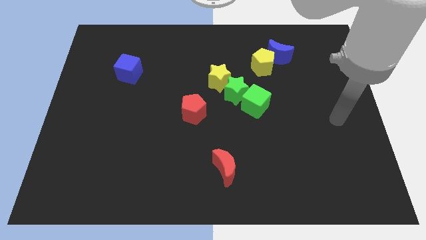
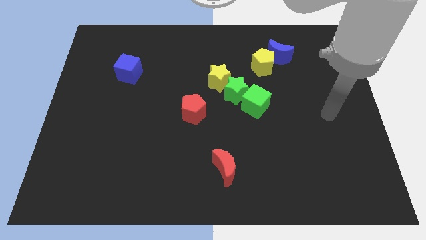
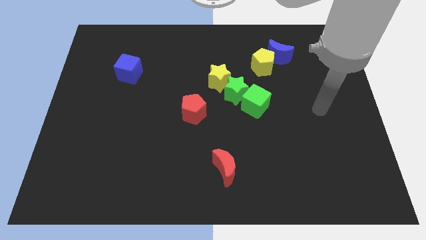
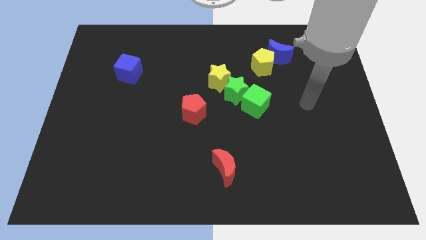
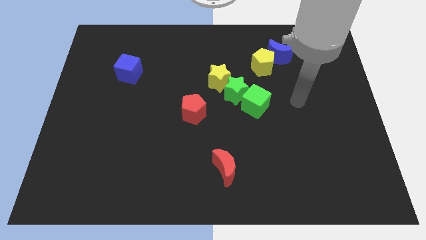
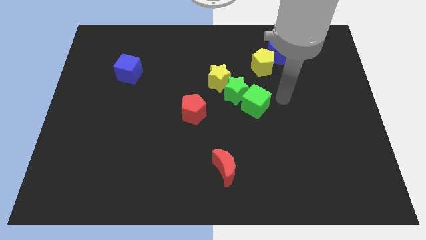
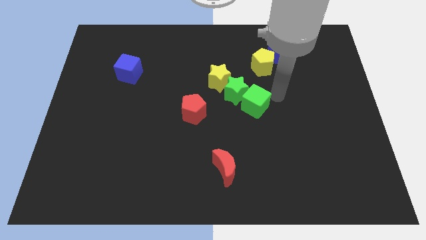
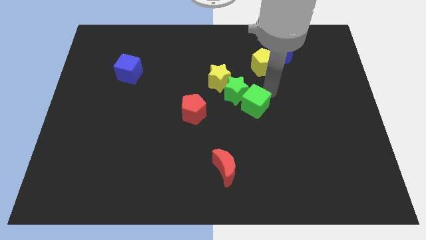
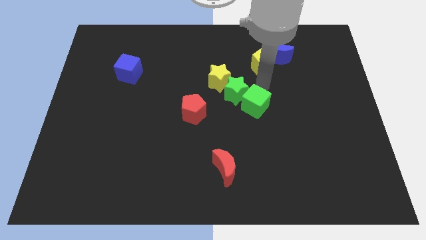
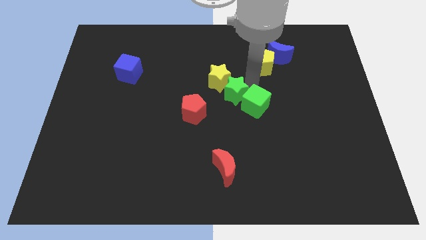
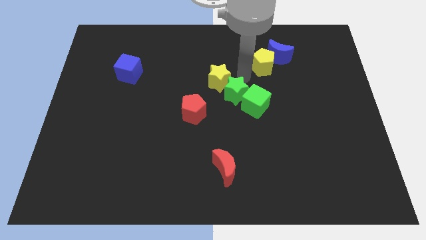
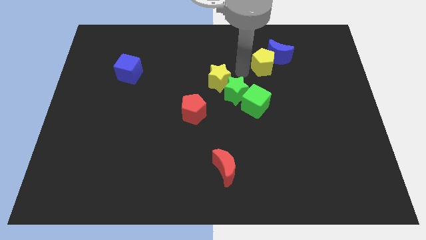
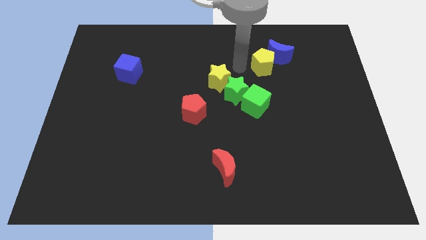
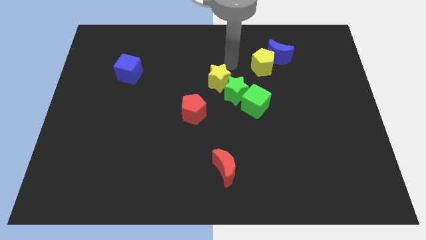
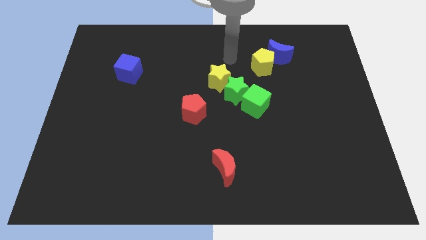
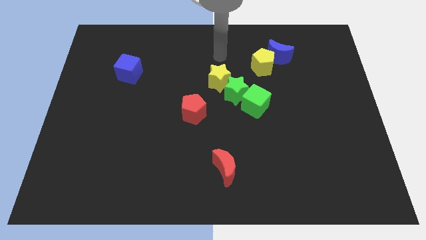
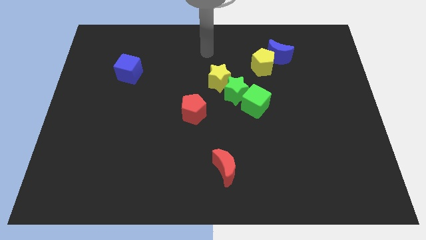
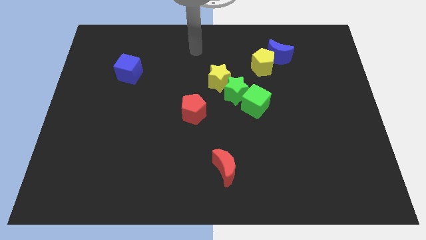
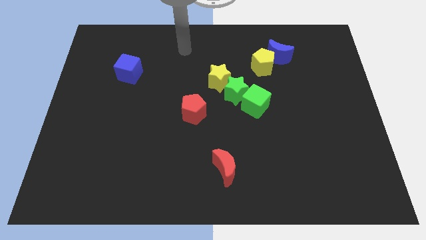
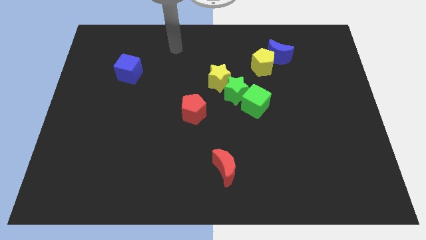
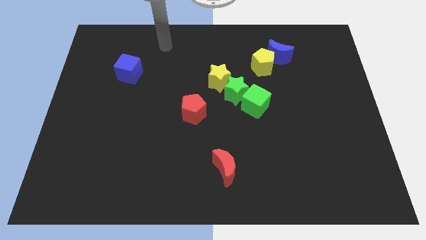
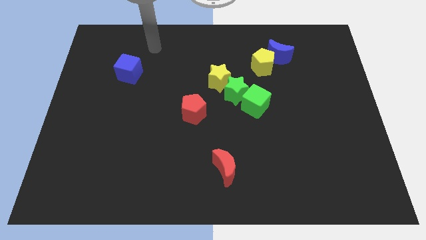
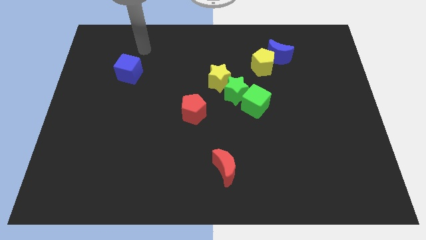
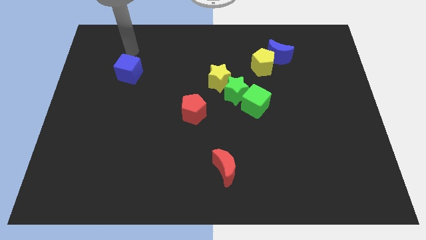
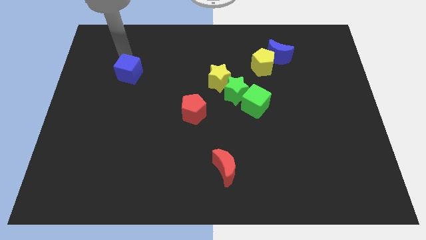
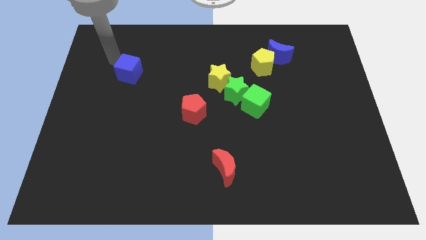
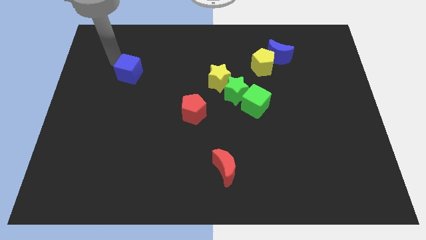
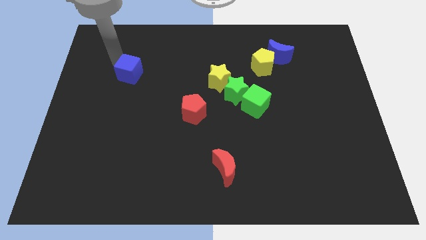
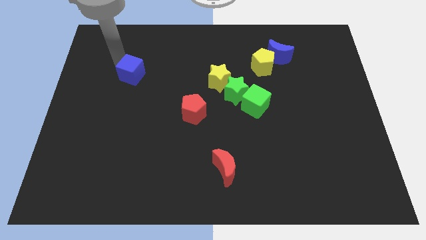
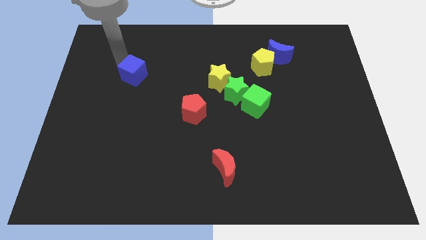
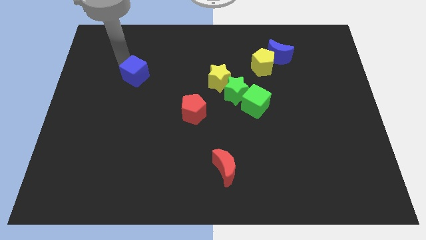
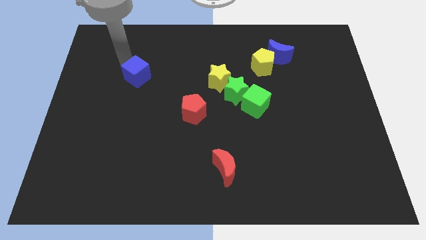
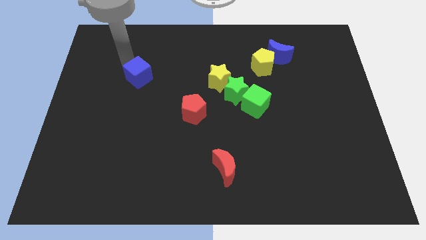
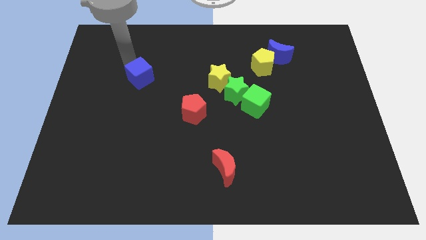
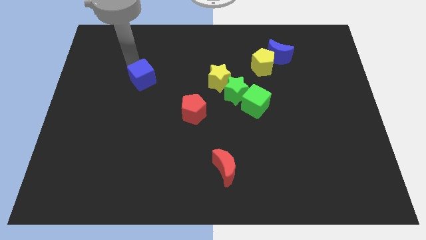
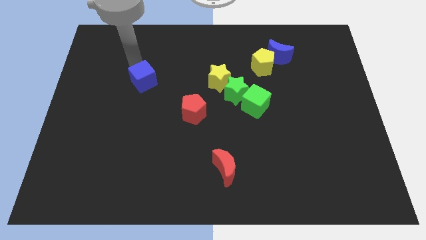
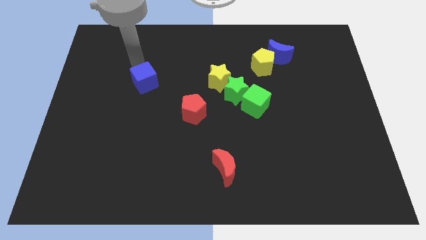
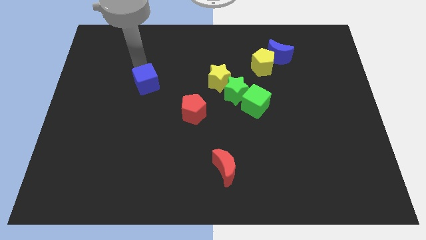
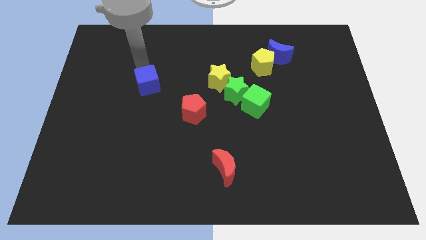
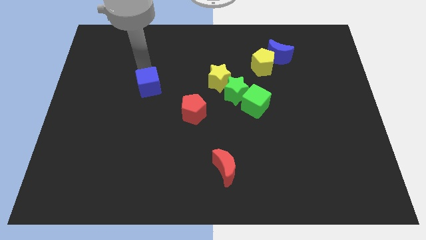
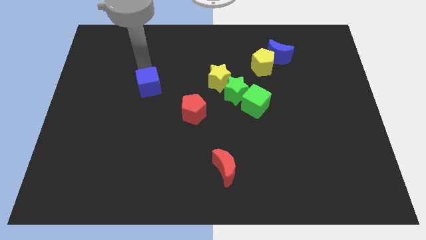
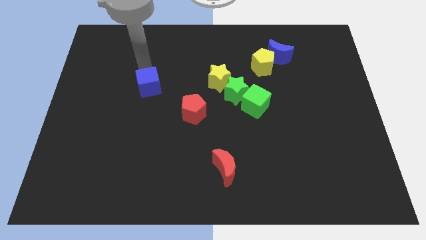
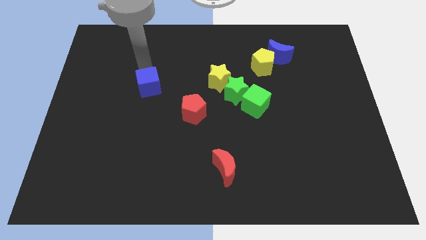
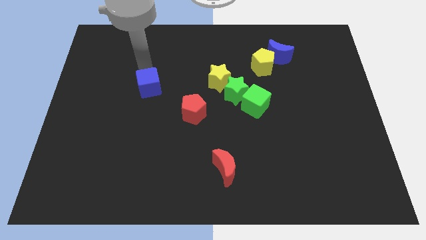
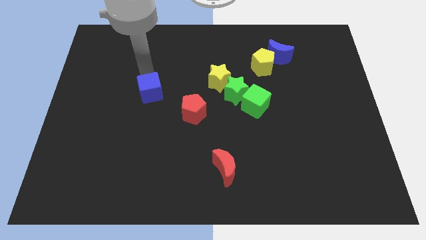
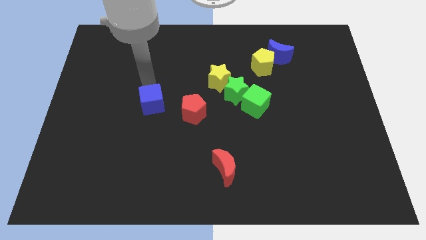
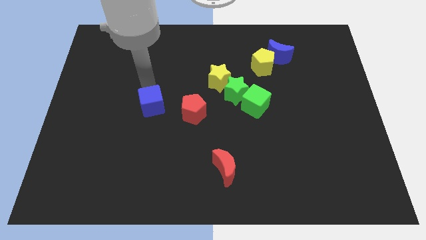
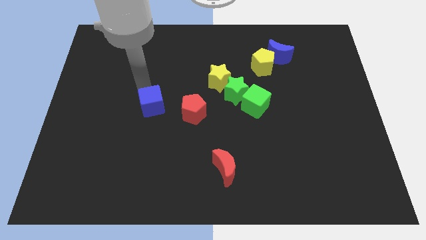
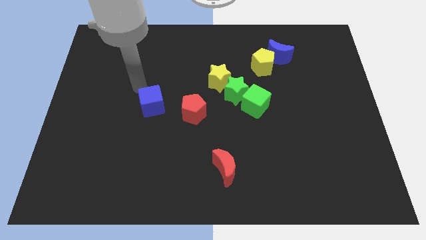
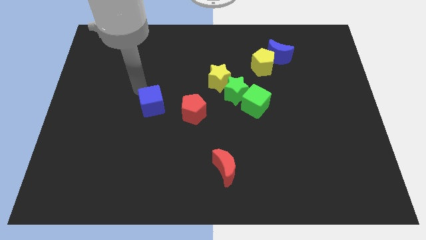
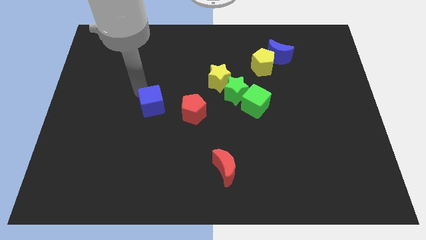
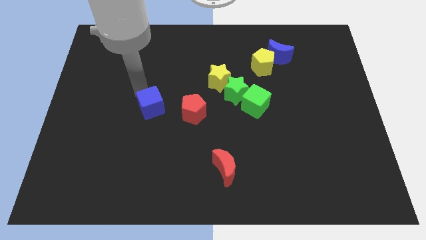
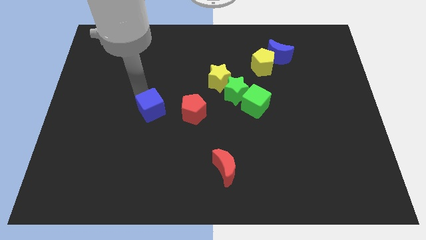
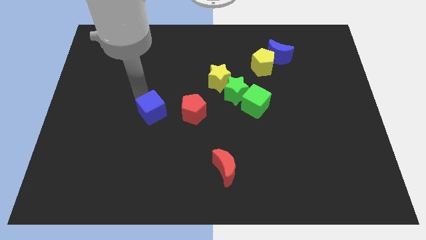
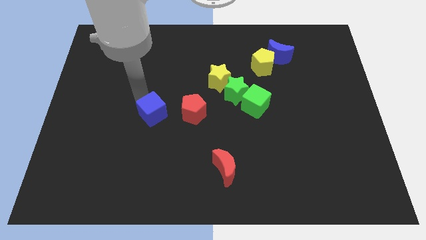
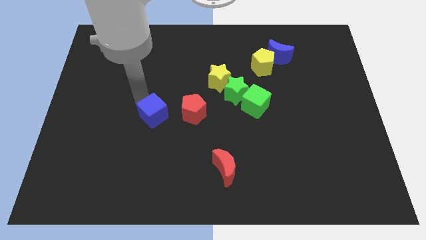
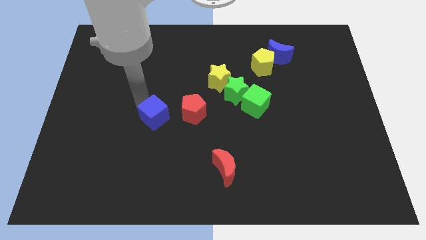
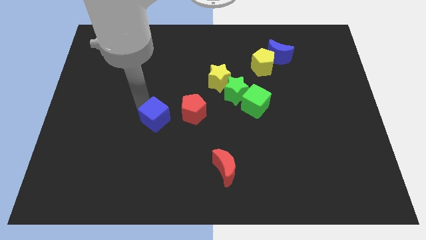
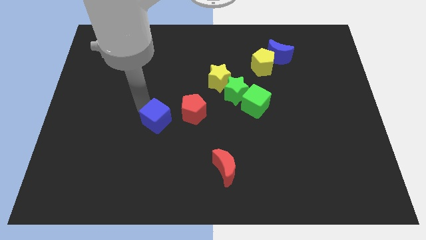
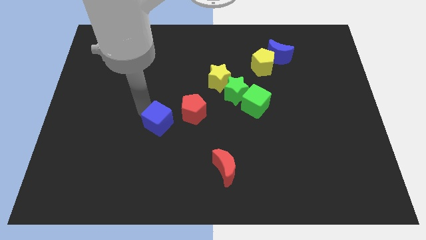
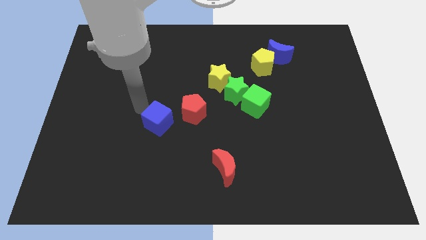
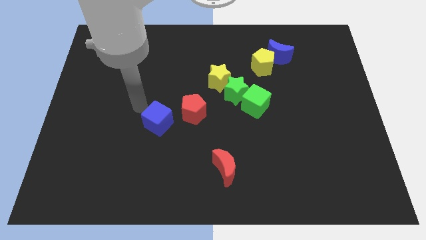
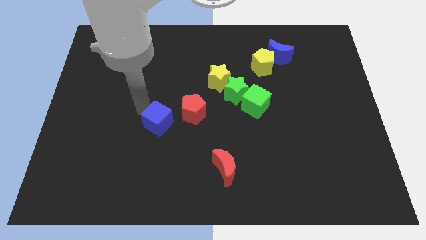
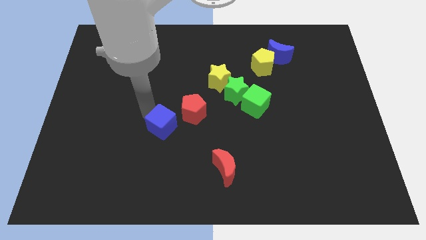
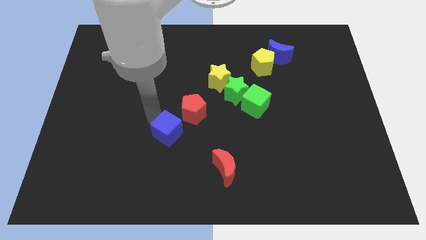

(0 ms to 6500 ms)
move the blue cube downwards and right diagonally

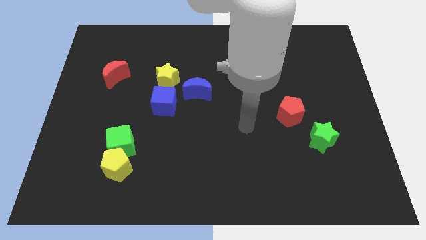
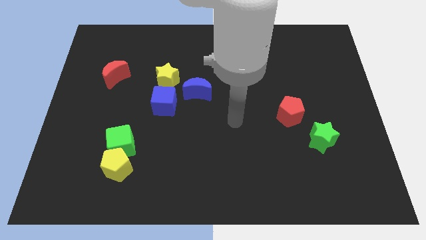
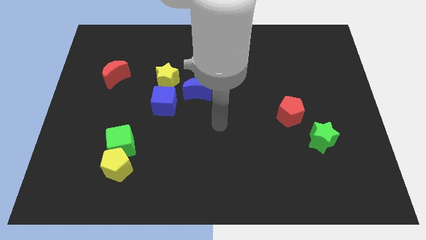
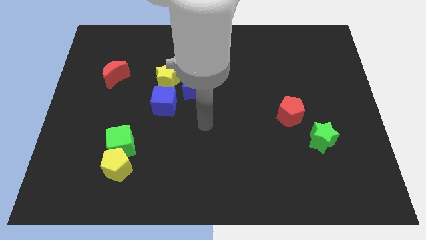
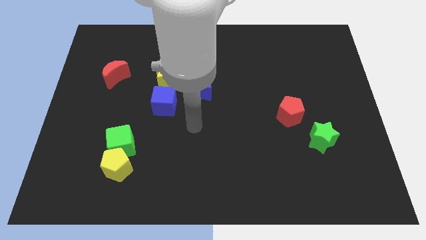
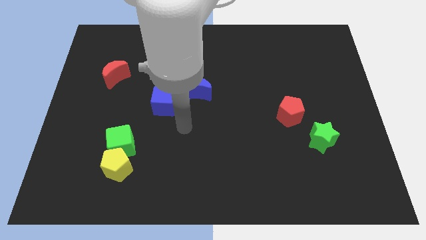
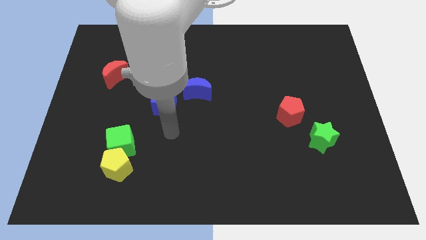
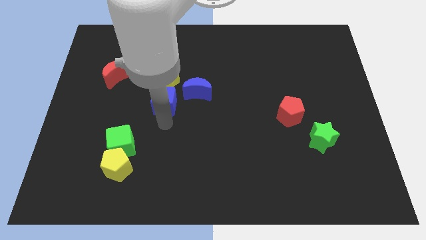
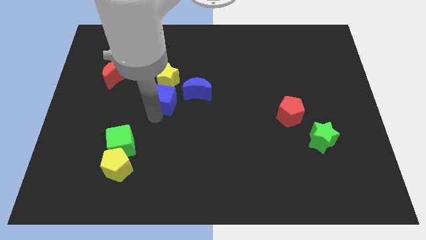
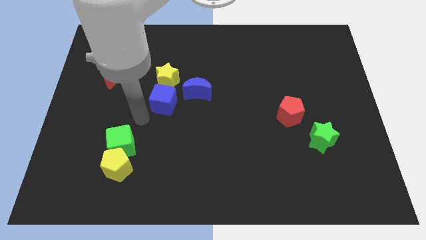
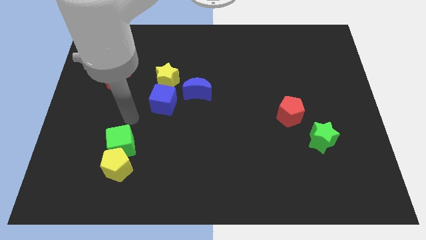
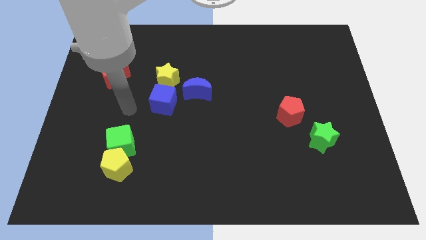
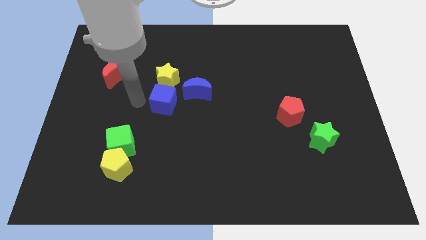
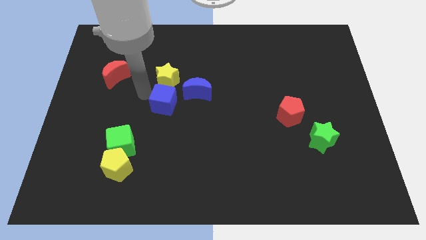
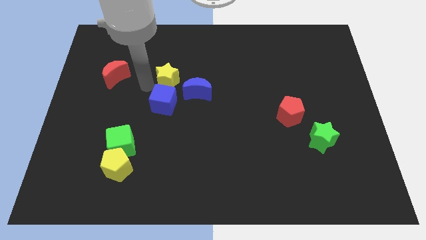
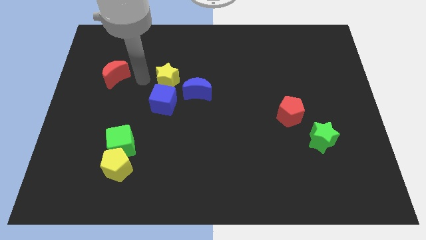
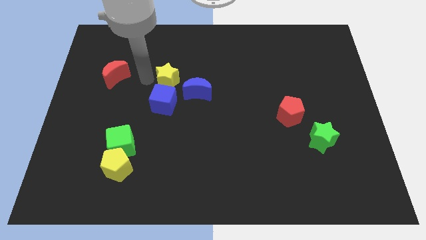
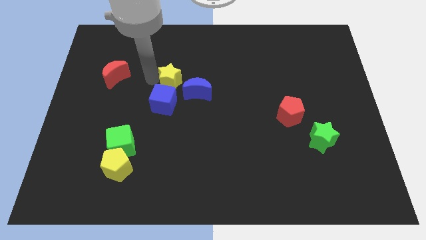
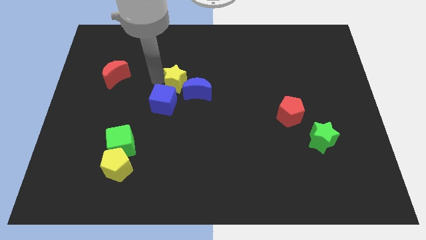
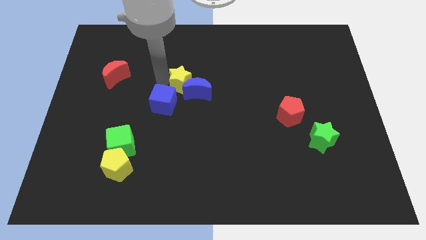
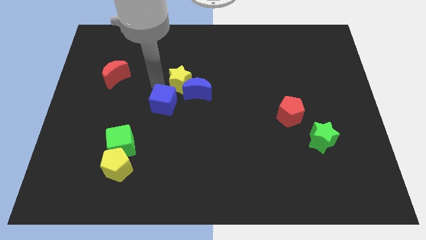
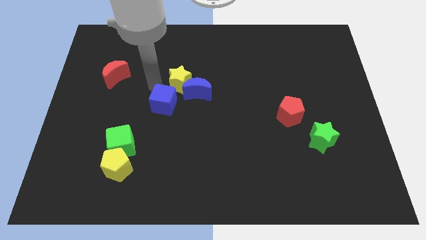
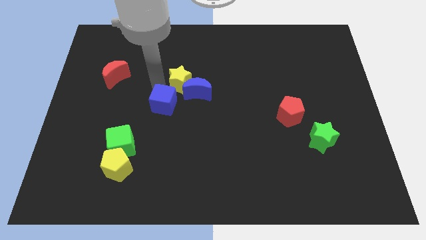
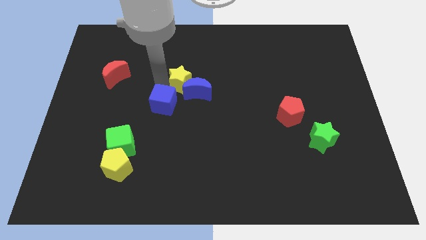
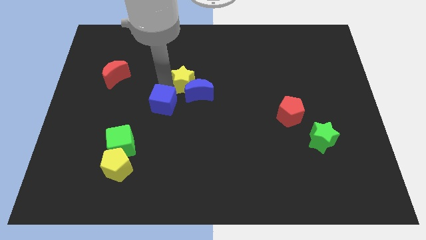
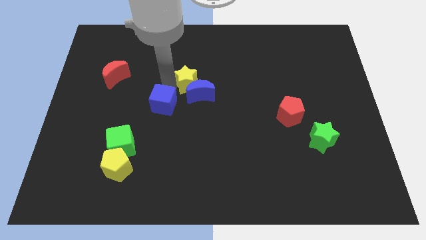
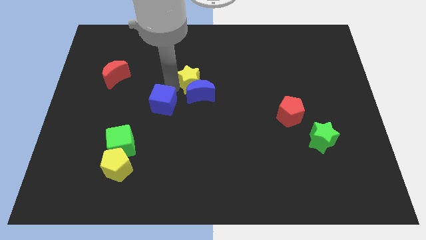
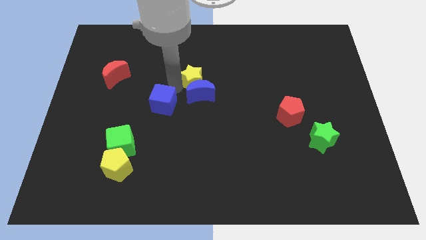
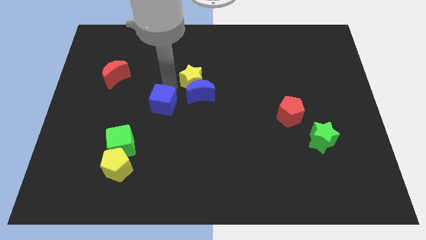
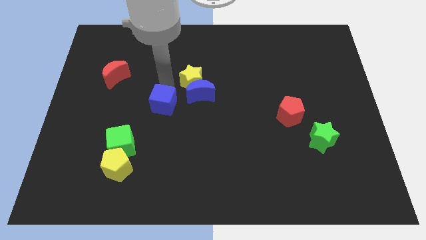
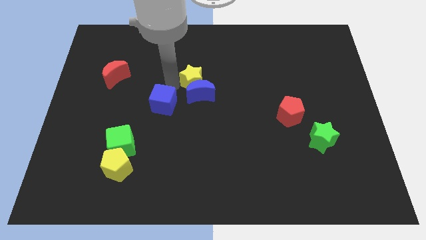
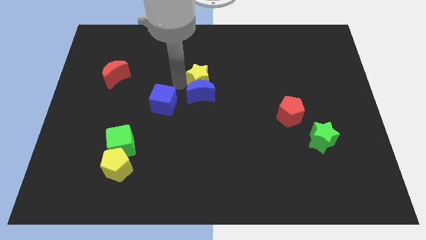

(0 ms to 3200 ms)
slightly slide the yellow star right
